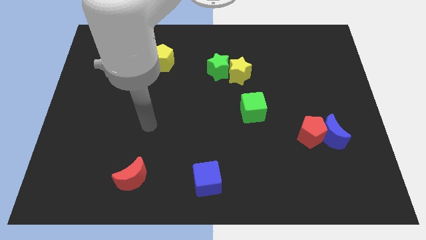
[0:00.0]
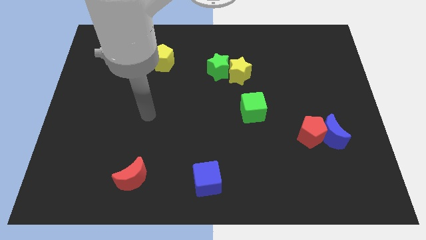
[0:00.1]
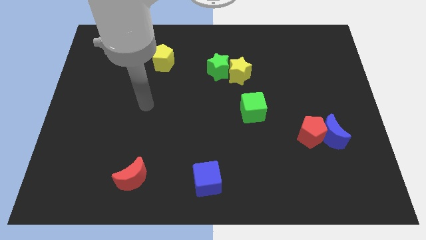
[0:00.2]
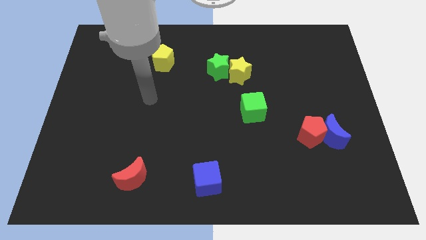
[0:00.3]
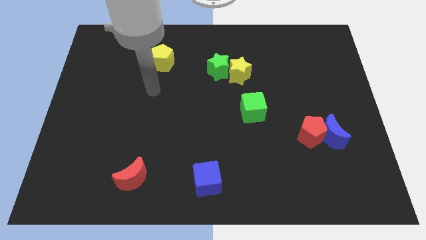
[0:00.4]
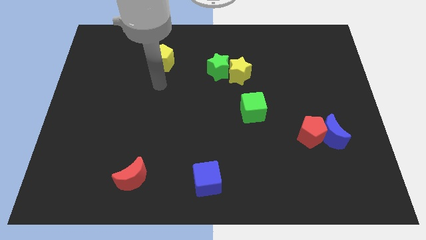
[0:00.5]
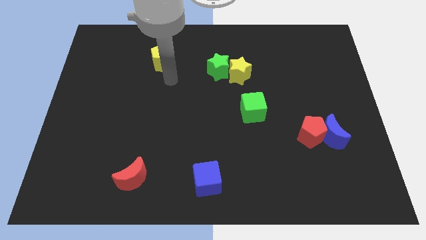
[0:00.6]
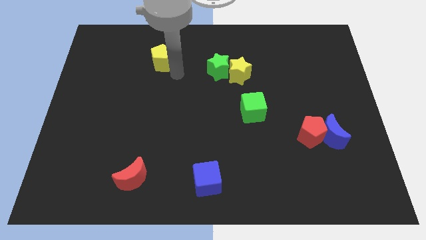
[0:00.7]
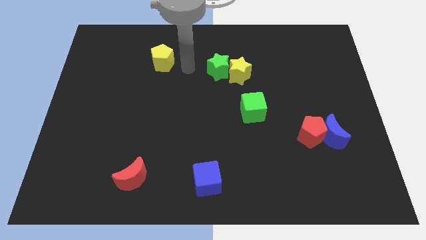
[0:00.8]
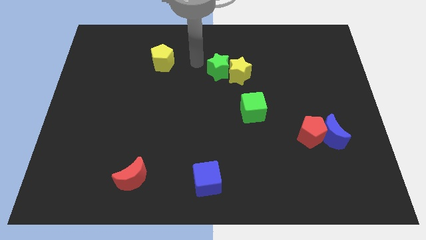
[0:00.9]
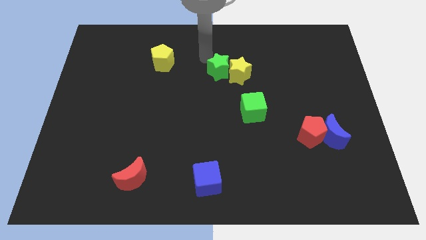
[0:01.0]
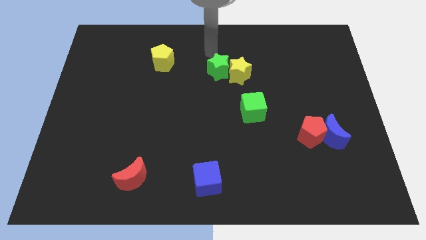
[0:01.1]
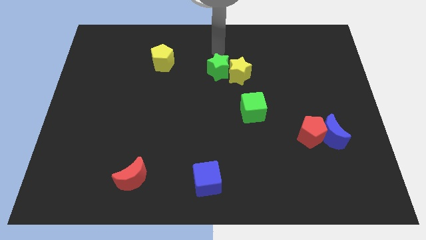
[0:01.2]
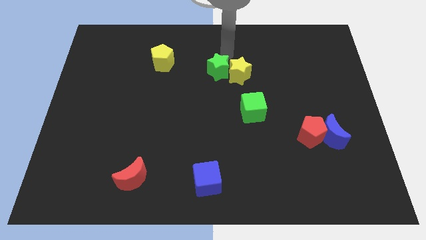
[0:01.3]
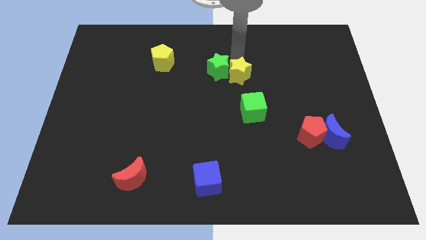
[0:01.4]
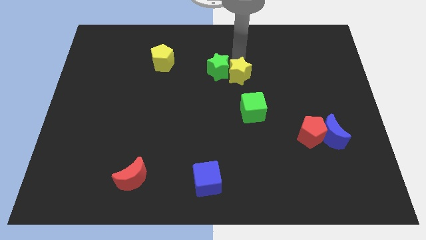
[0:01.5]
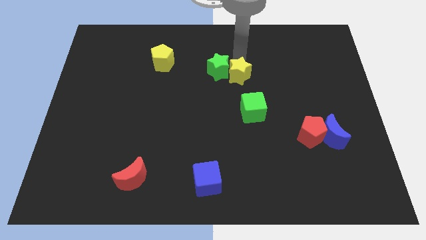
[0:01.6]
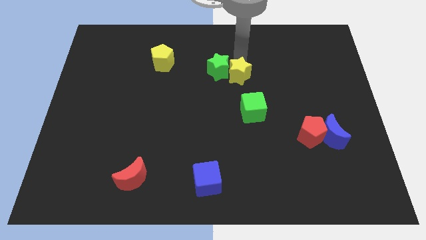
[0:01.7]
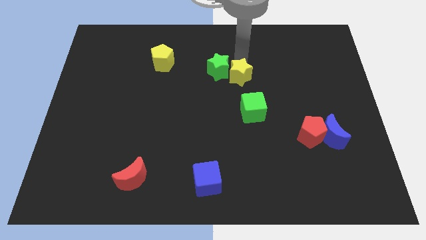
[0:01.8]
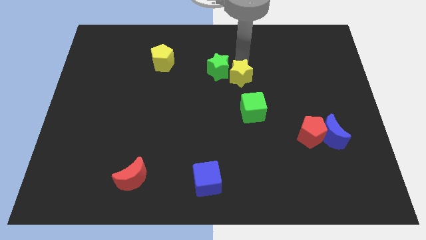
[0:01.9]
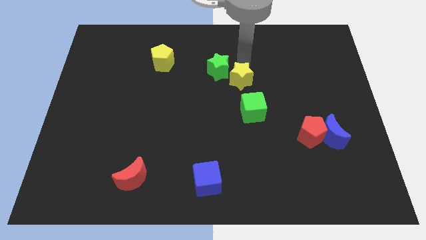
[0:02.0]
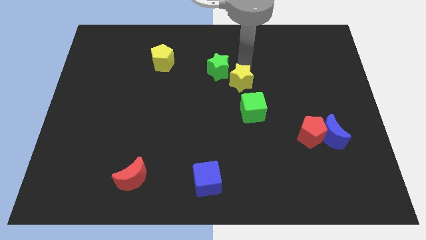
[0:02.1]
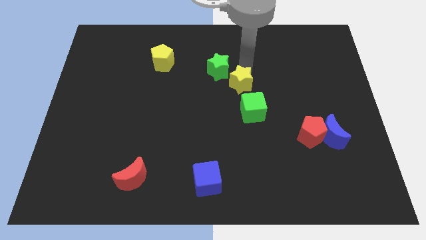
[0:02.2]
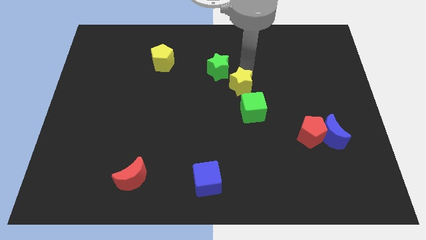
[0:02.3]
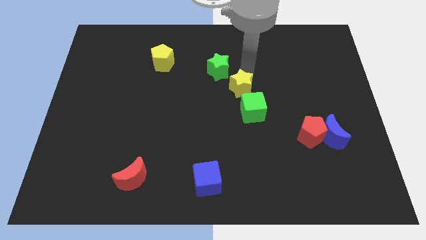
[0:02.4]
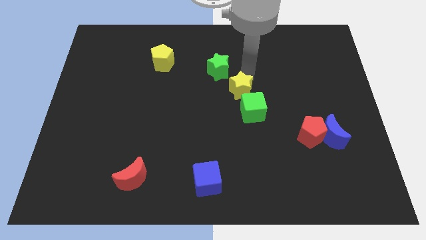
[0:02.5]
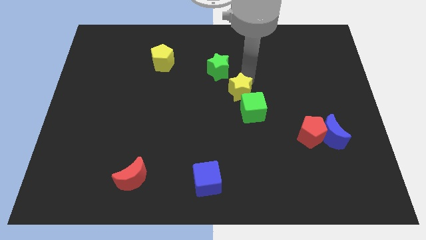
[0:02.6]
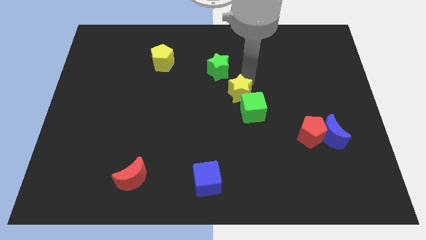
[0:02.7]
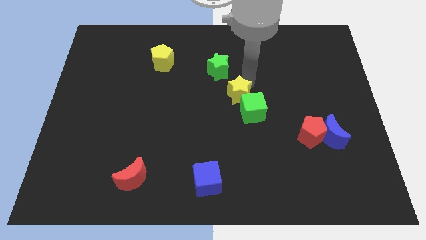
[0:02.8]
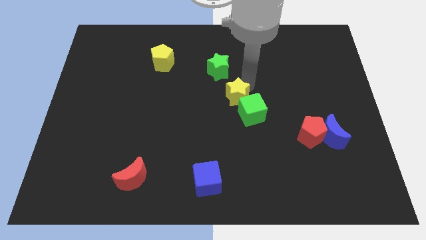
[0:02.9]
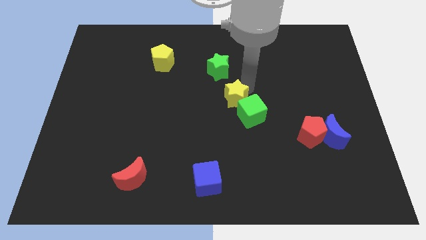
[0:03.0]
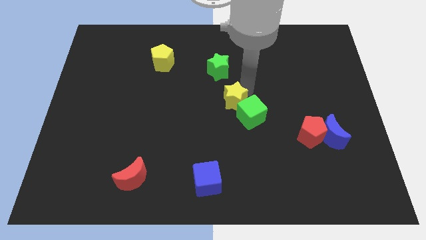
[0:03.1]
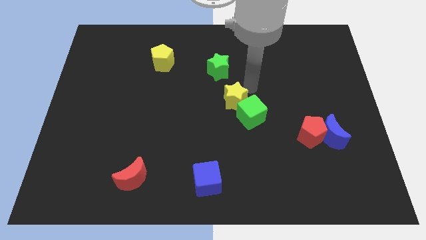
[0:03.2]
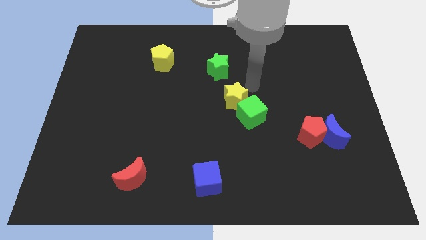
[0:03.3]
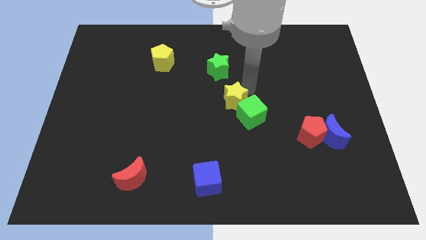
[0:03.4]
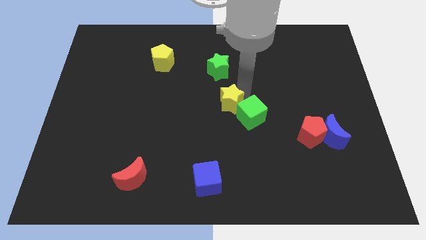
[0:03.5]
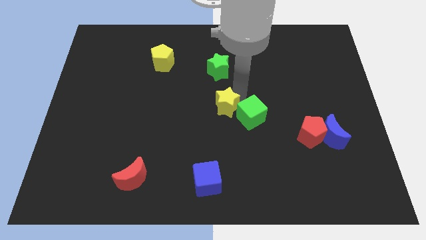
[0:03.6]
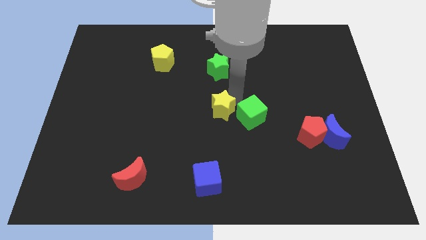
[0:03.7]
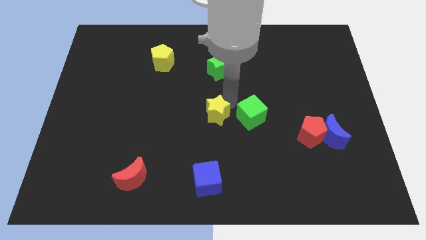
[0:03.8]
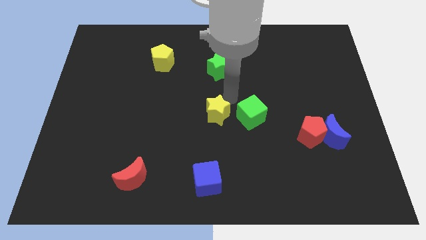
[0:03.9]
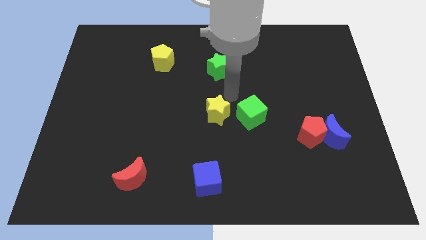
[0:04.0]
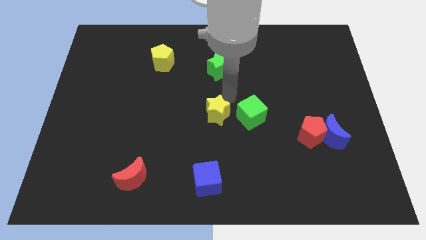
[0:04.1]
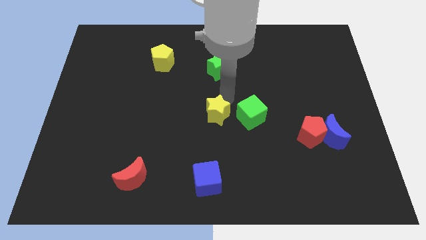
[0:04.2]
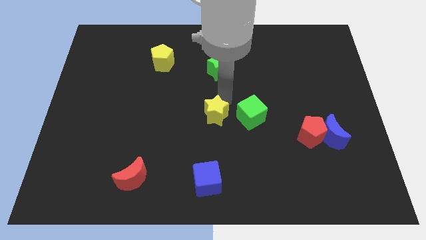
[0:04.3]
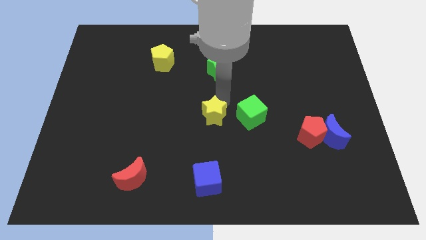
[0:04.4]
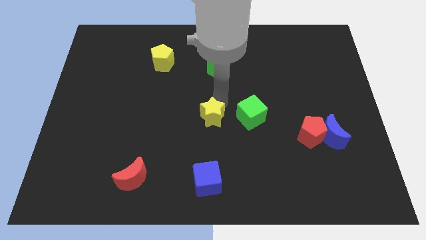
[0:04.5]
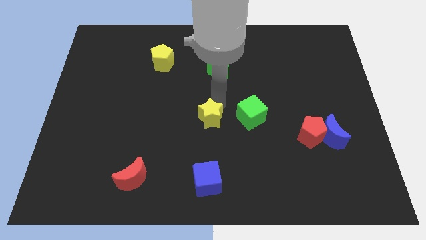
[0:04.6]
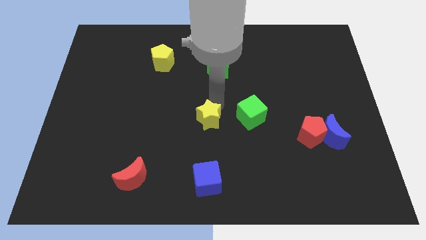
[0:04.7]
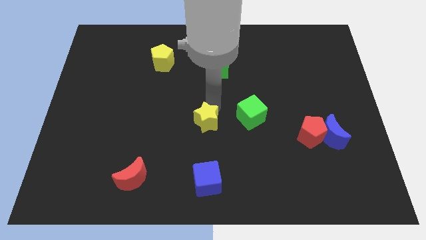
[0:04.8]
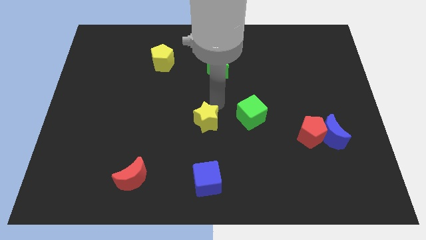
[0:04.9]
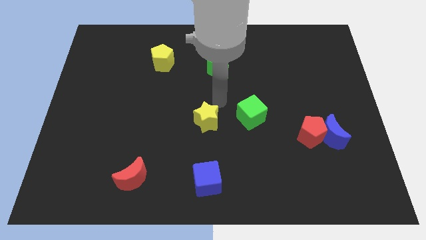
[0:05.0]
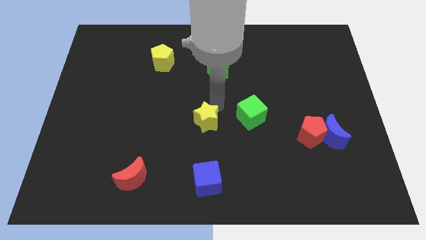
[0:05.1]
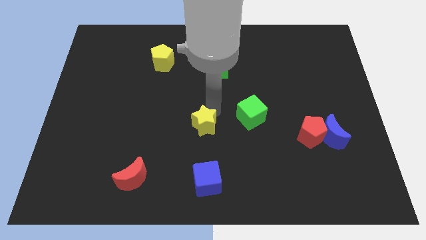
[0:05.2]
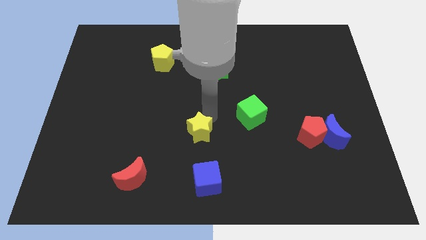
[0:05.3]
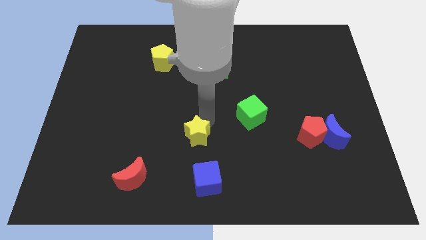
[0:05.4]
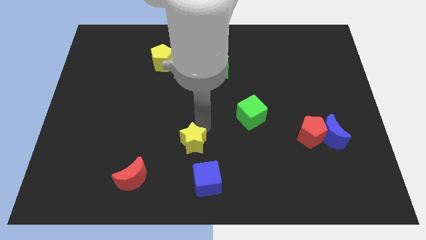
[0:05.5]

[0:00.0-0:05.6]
put the yellow star diagonally up and to the left of the blue cube

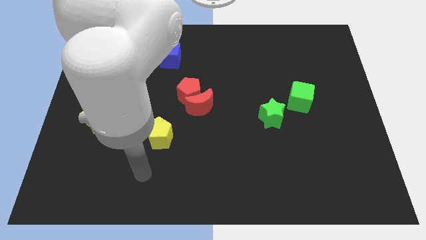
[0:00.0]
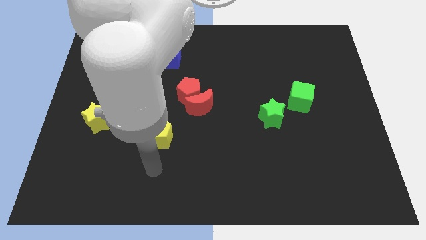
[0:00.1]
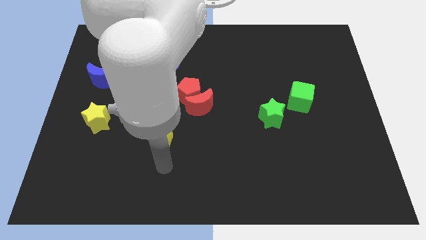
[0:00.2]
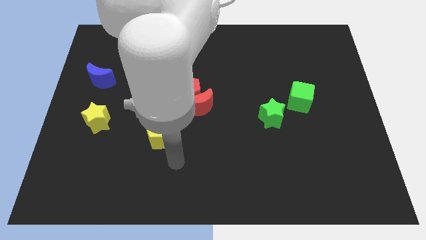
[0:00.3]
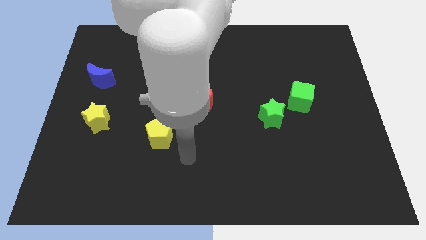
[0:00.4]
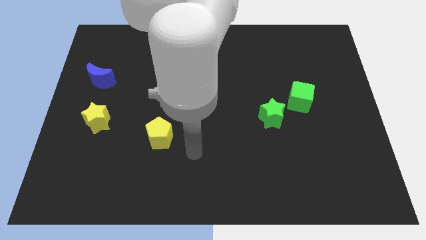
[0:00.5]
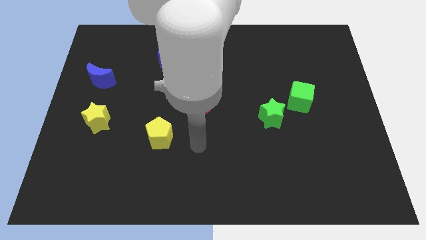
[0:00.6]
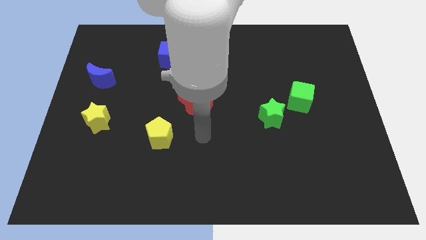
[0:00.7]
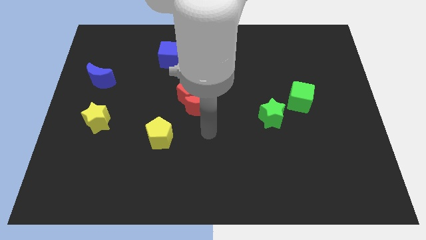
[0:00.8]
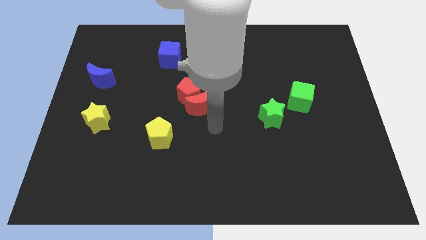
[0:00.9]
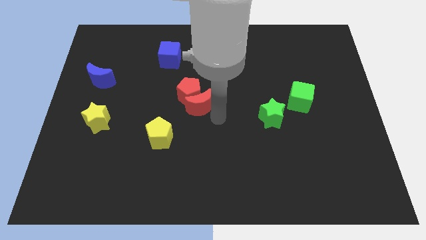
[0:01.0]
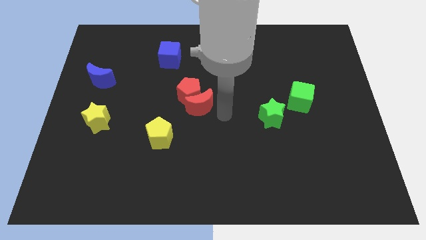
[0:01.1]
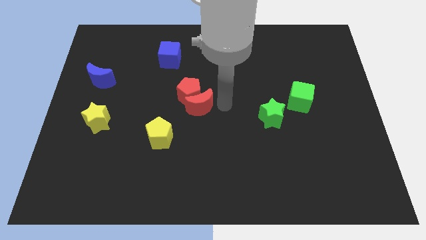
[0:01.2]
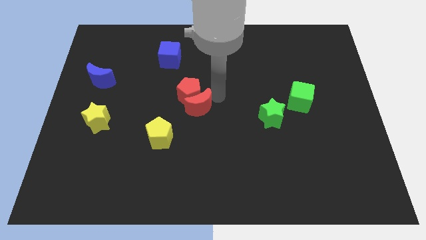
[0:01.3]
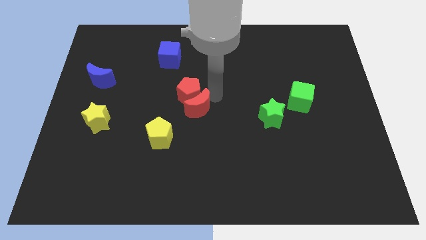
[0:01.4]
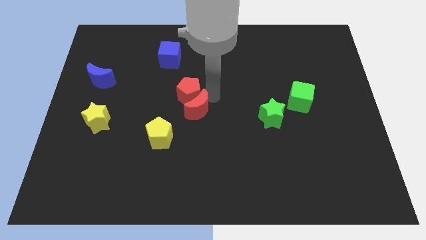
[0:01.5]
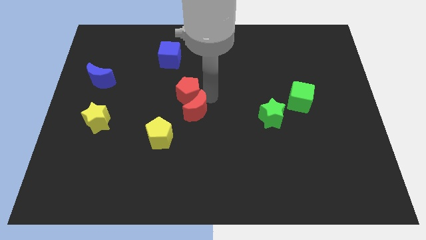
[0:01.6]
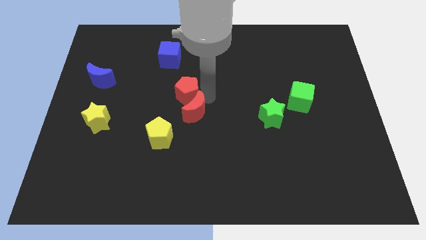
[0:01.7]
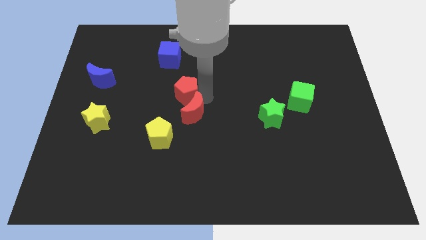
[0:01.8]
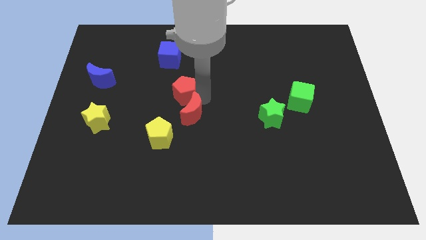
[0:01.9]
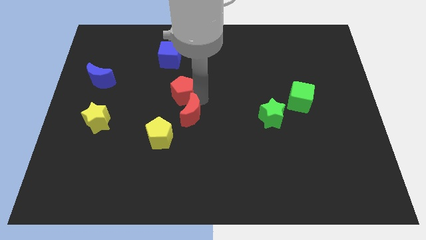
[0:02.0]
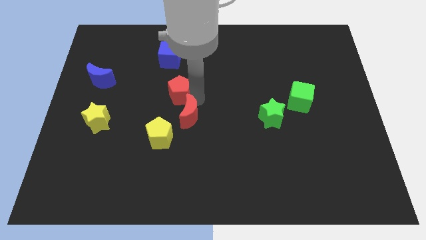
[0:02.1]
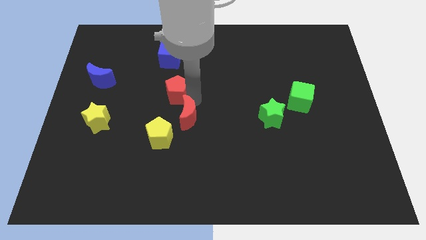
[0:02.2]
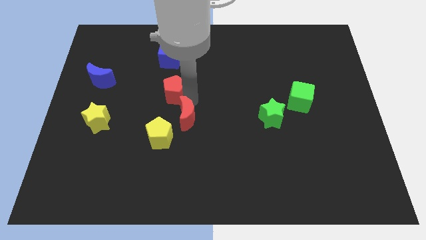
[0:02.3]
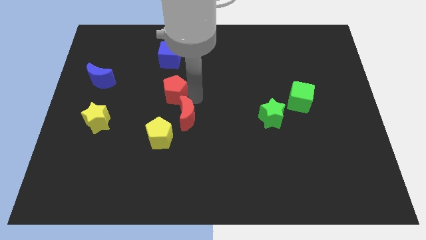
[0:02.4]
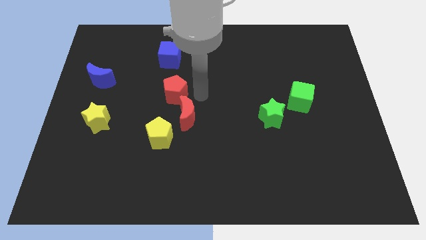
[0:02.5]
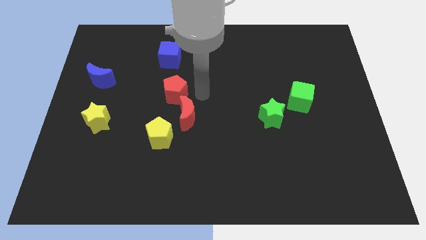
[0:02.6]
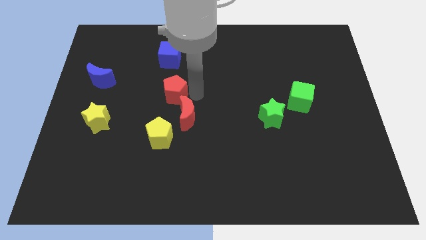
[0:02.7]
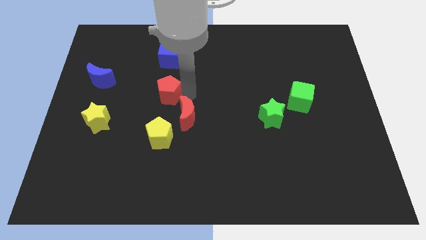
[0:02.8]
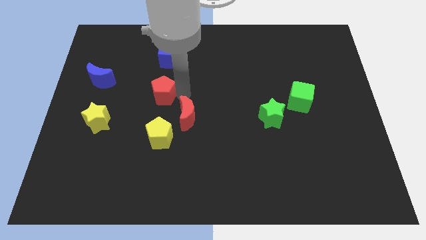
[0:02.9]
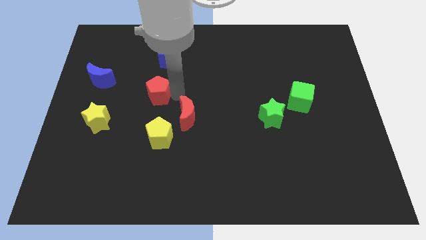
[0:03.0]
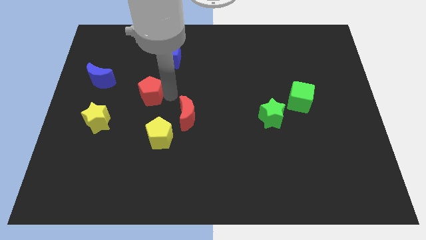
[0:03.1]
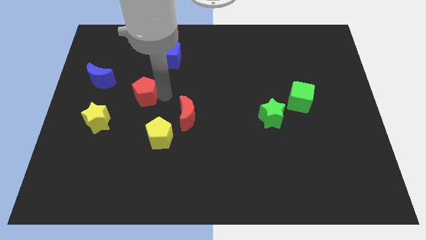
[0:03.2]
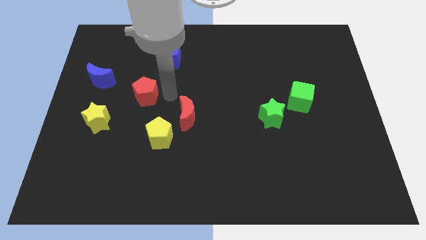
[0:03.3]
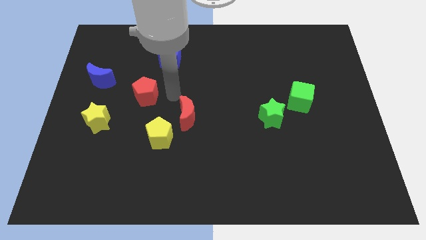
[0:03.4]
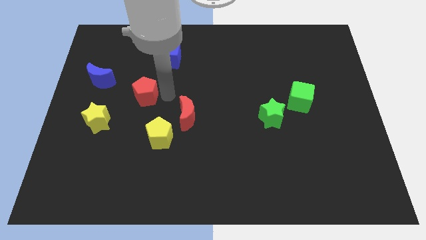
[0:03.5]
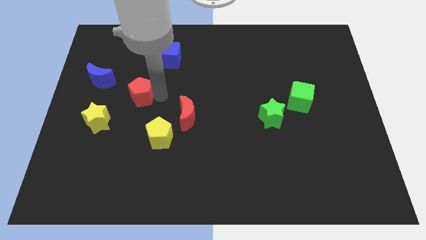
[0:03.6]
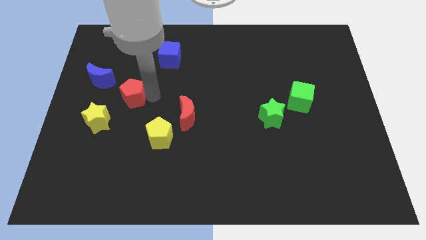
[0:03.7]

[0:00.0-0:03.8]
put the red pentagon diagonally down and to the right of the blue moon
